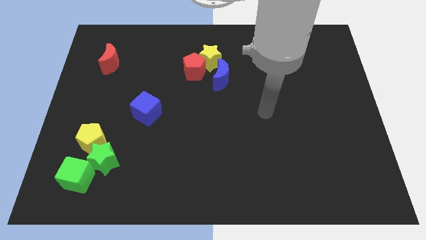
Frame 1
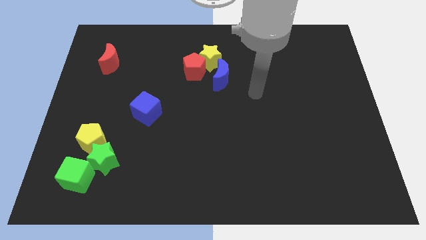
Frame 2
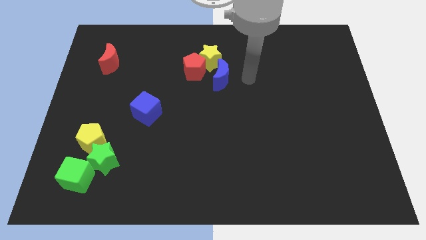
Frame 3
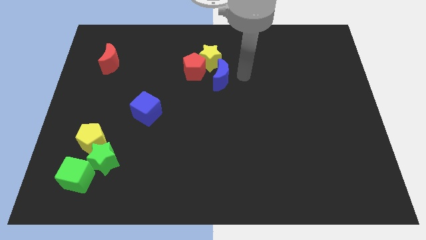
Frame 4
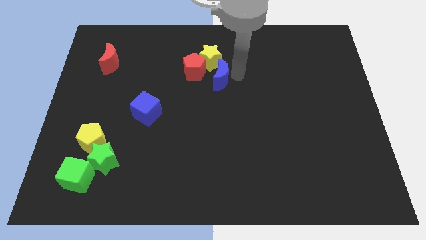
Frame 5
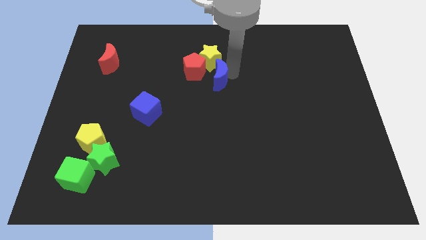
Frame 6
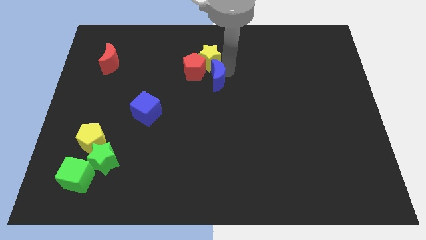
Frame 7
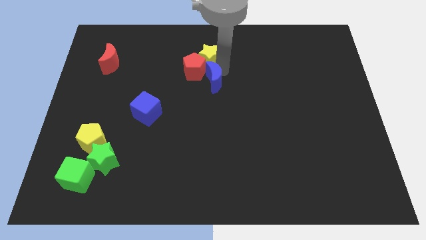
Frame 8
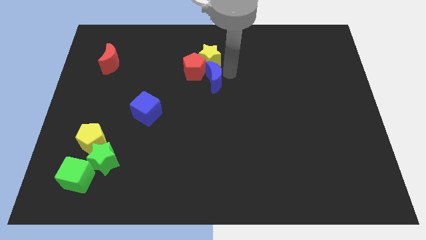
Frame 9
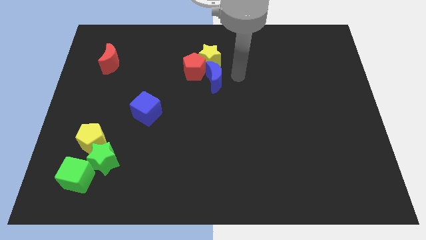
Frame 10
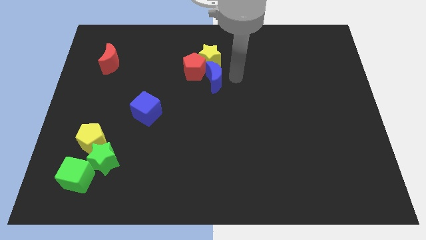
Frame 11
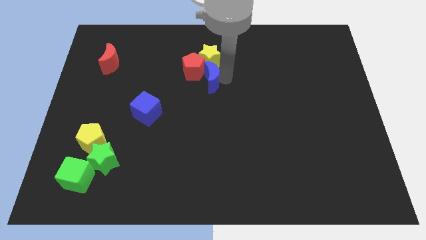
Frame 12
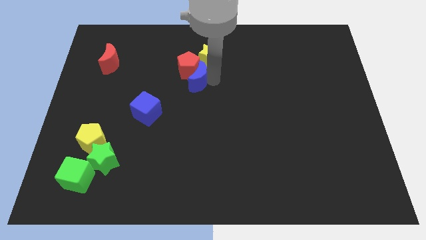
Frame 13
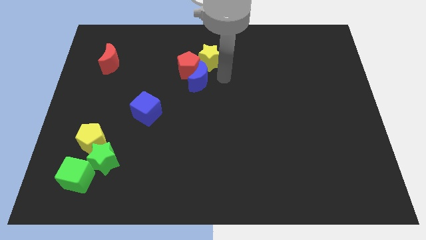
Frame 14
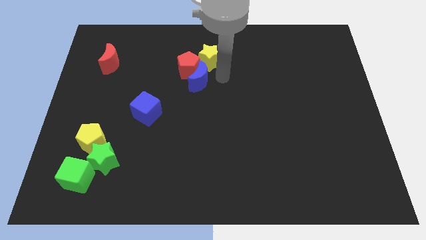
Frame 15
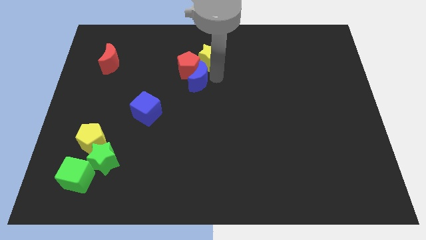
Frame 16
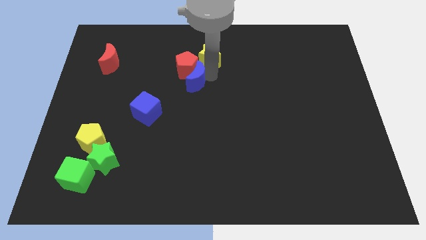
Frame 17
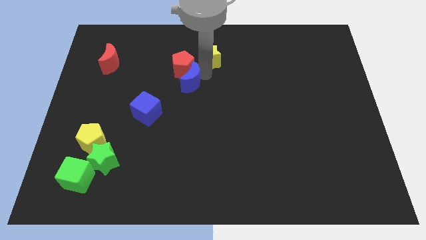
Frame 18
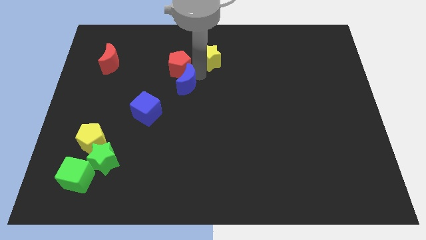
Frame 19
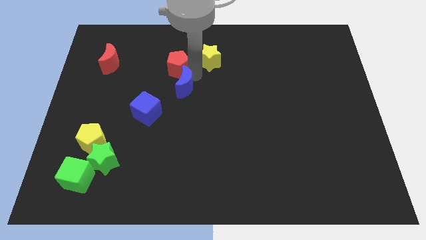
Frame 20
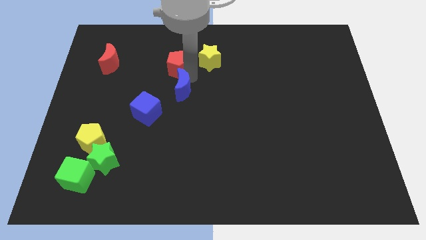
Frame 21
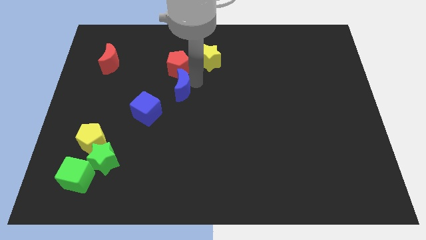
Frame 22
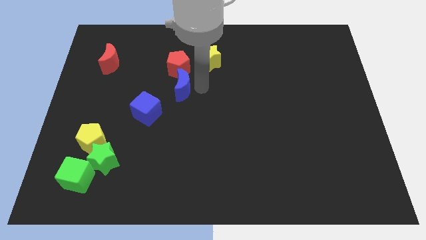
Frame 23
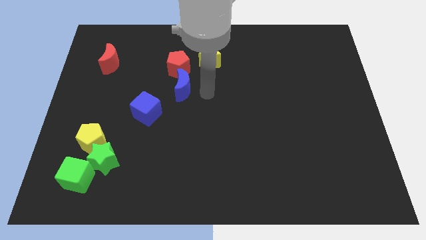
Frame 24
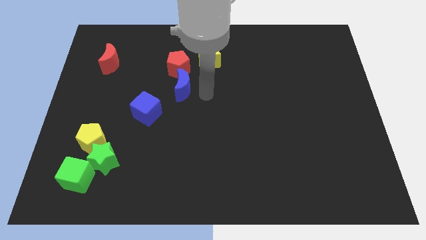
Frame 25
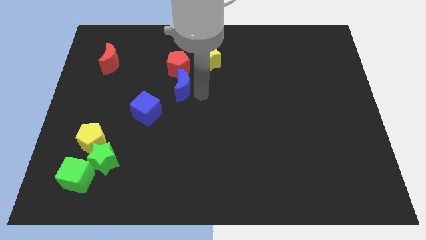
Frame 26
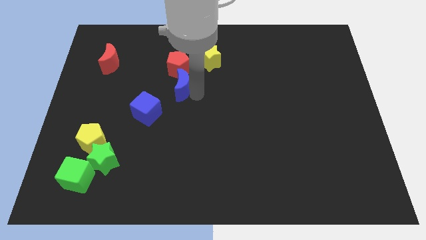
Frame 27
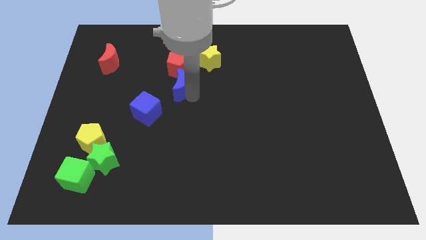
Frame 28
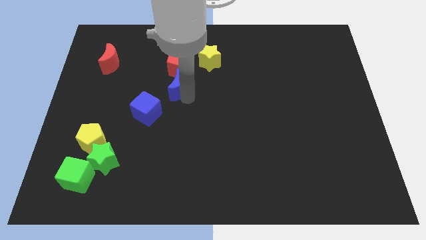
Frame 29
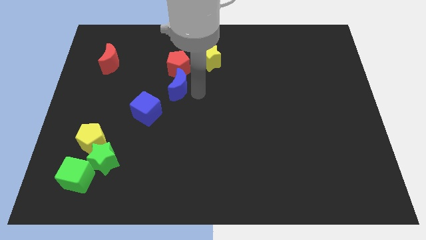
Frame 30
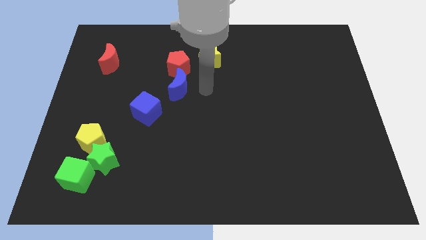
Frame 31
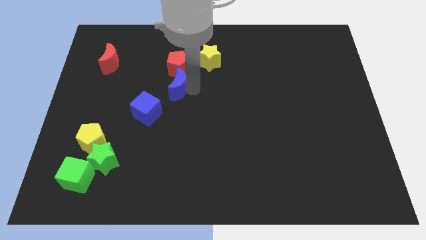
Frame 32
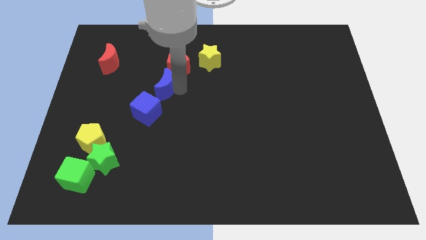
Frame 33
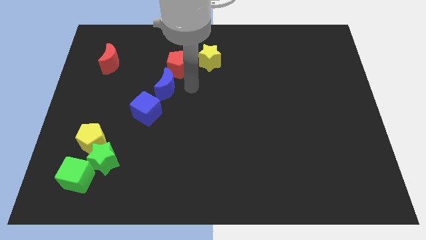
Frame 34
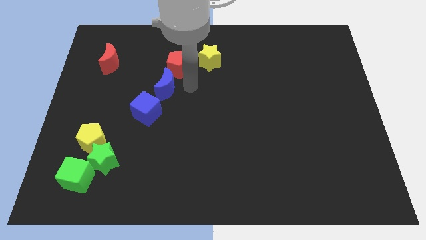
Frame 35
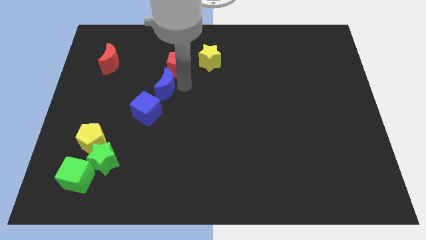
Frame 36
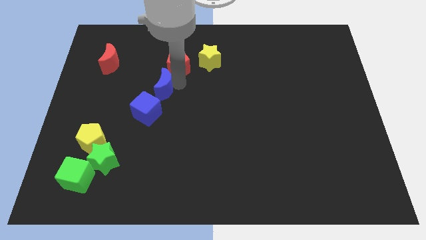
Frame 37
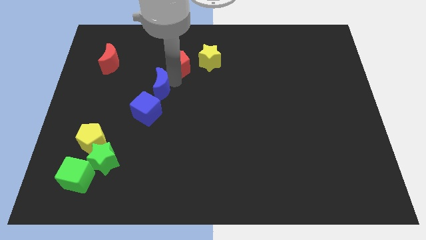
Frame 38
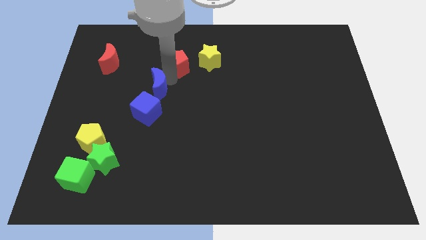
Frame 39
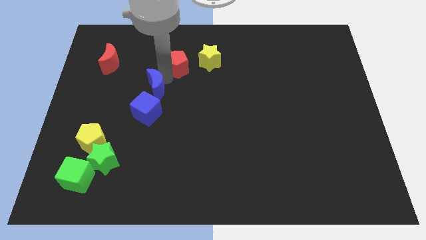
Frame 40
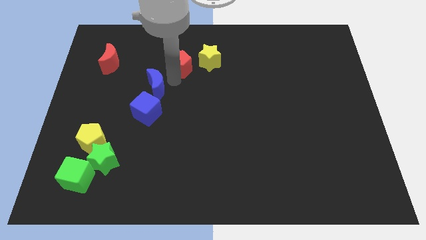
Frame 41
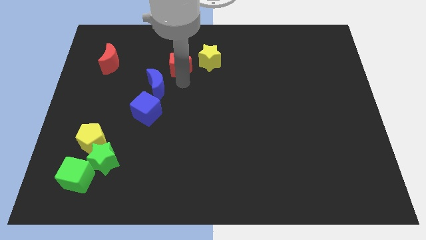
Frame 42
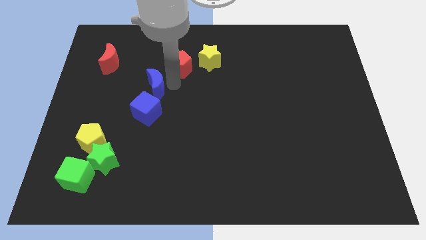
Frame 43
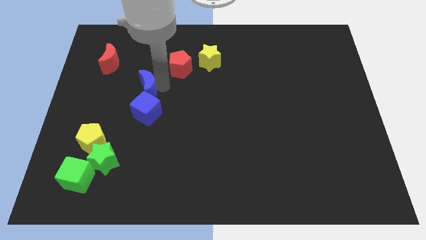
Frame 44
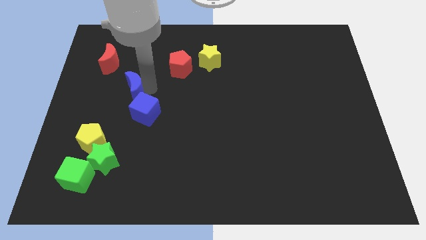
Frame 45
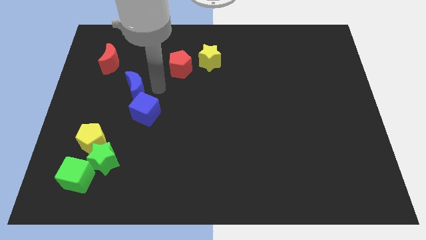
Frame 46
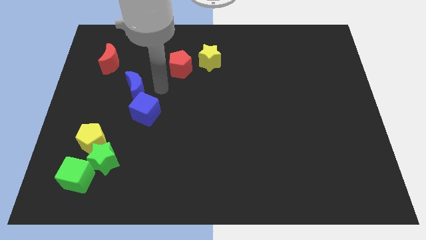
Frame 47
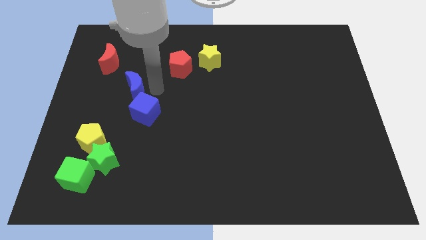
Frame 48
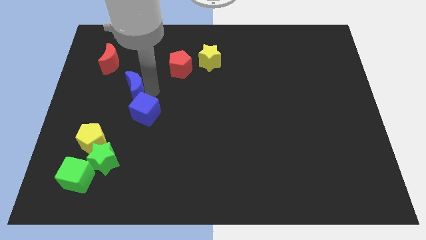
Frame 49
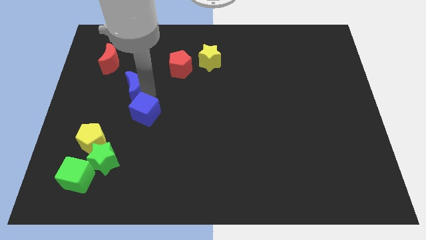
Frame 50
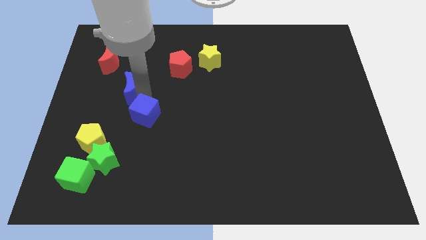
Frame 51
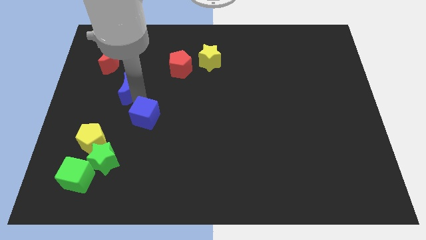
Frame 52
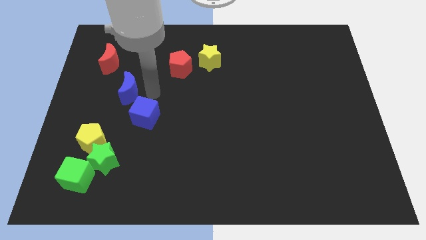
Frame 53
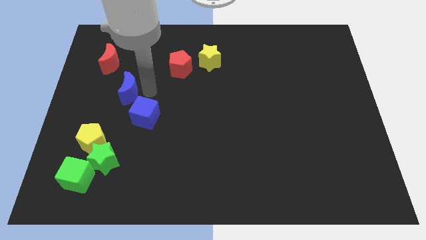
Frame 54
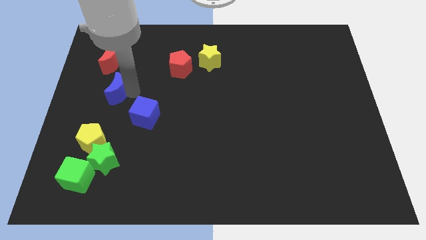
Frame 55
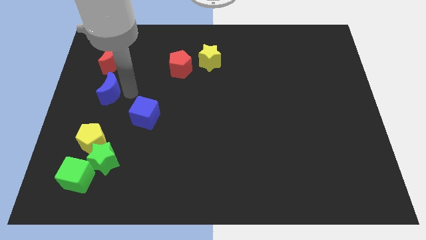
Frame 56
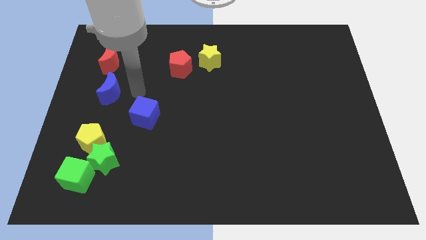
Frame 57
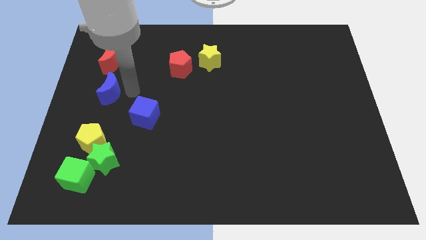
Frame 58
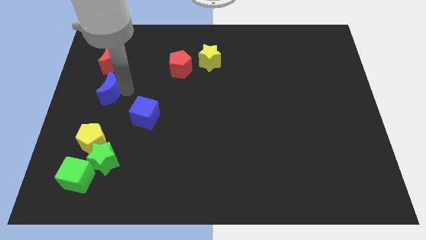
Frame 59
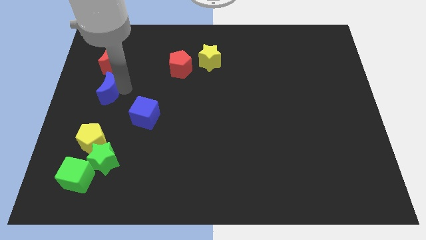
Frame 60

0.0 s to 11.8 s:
put the blue moon to the left side of the board
